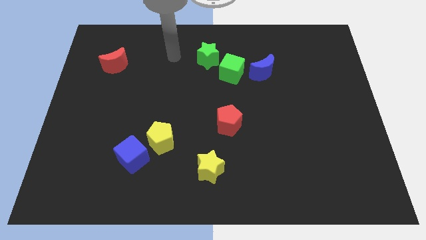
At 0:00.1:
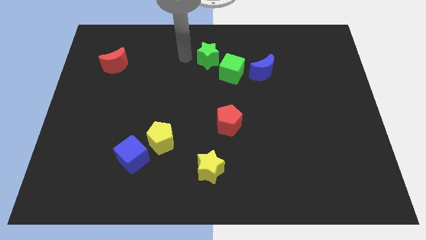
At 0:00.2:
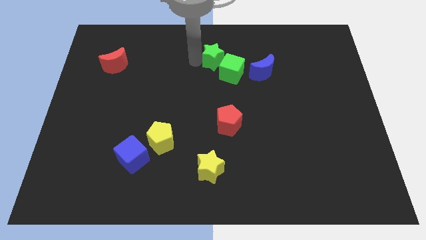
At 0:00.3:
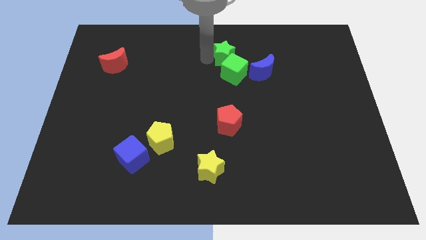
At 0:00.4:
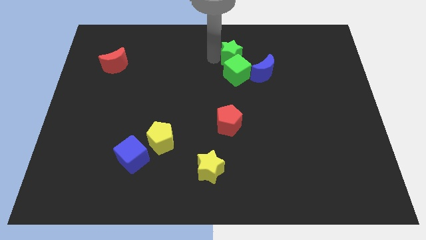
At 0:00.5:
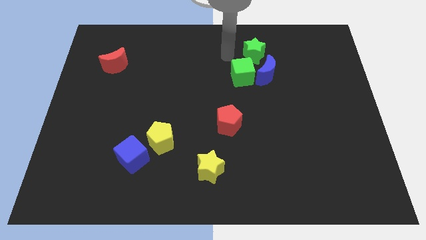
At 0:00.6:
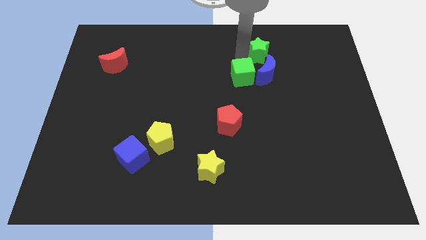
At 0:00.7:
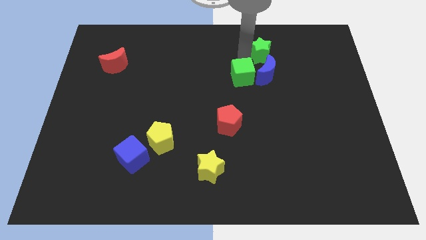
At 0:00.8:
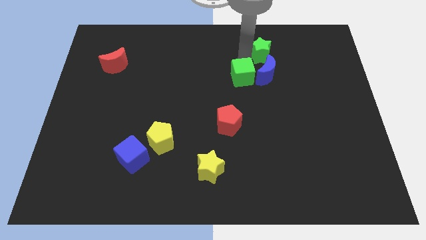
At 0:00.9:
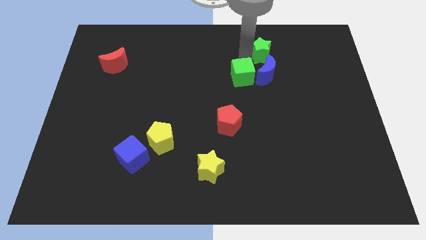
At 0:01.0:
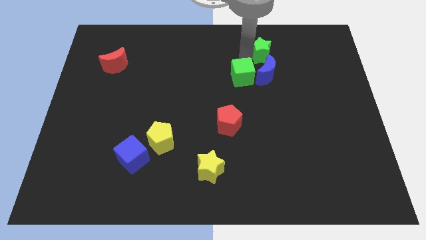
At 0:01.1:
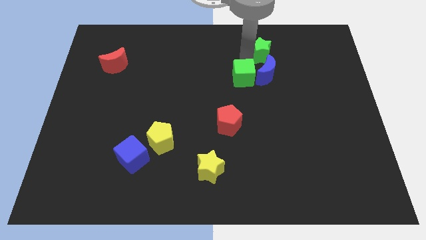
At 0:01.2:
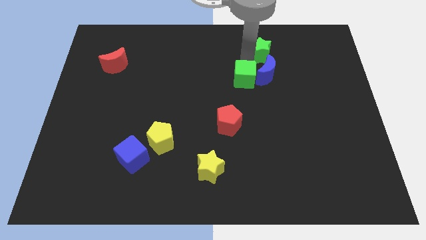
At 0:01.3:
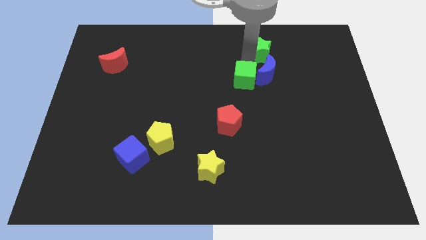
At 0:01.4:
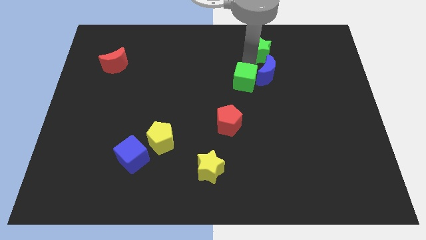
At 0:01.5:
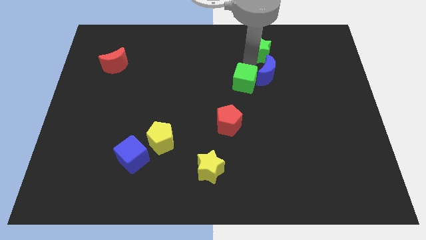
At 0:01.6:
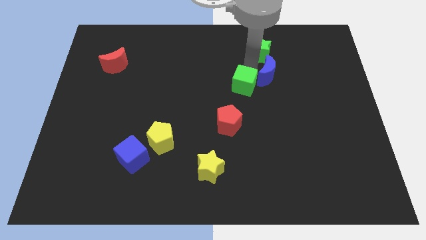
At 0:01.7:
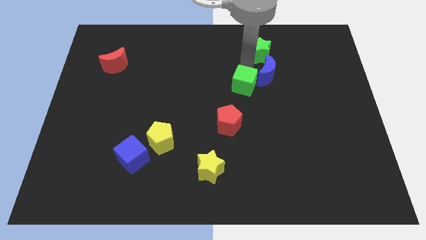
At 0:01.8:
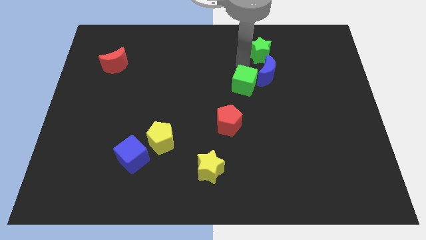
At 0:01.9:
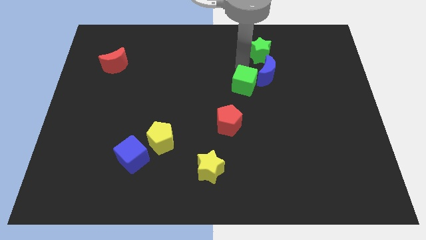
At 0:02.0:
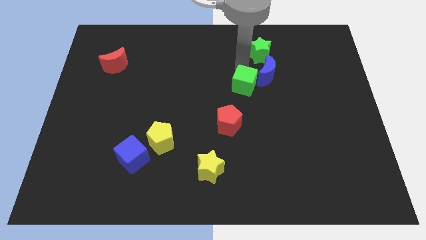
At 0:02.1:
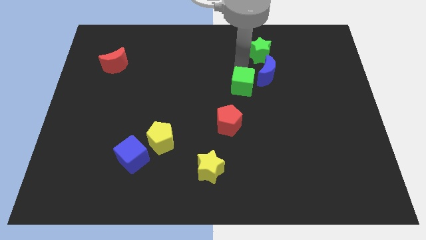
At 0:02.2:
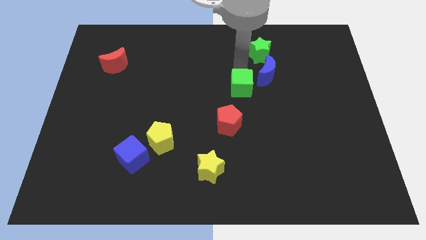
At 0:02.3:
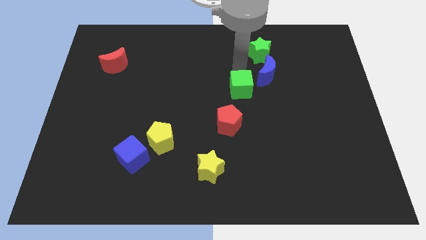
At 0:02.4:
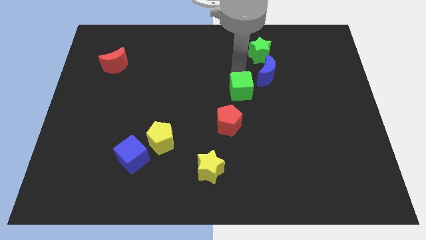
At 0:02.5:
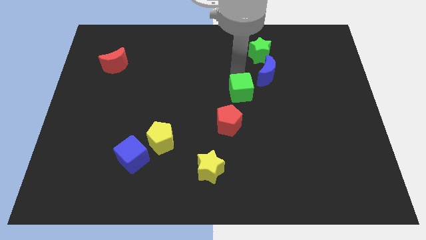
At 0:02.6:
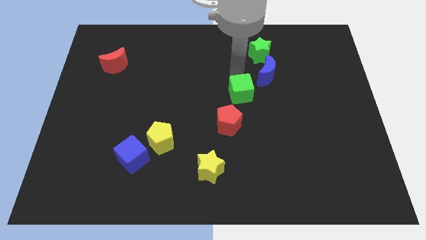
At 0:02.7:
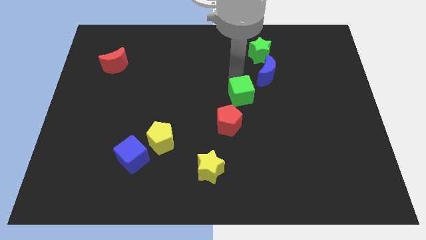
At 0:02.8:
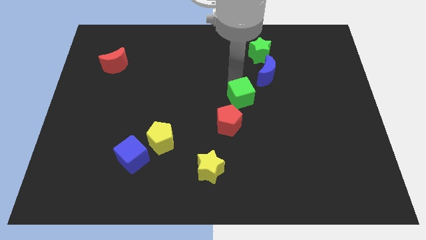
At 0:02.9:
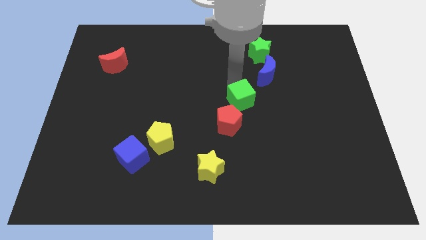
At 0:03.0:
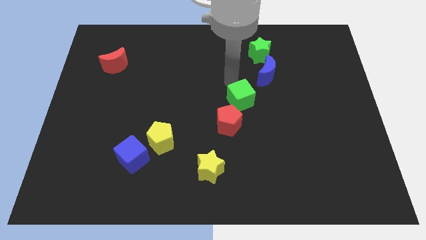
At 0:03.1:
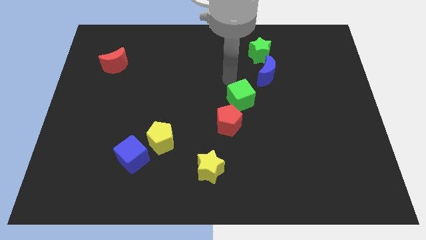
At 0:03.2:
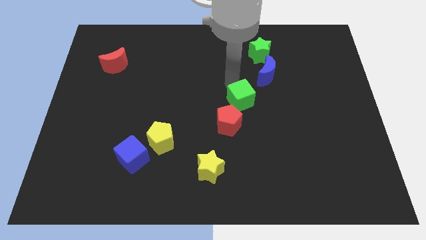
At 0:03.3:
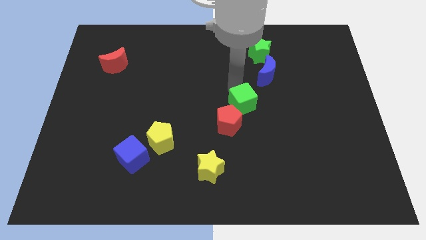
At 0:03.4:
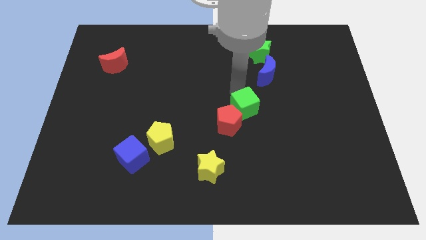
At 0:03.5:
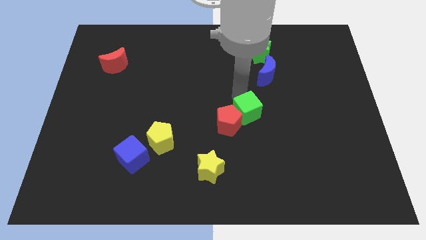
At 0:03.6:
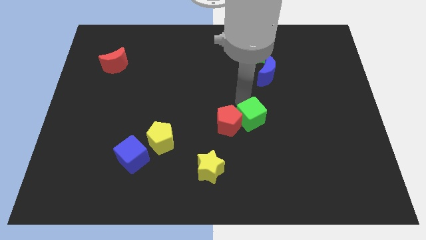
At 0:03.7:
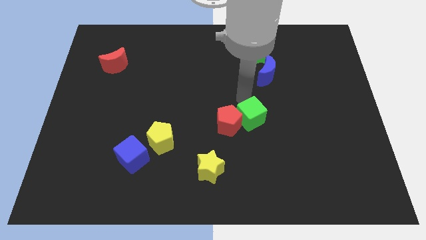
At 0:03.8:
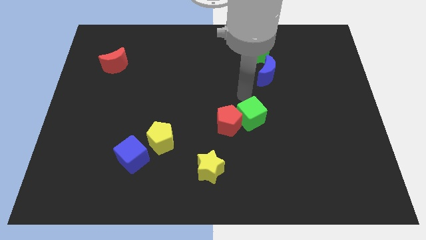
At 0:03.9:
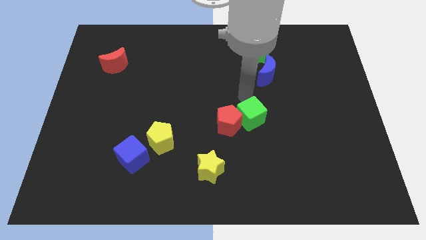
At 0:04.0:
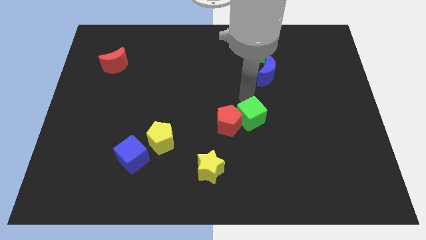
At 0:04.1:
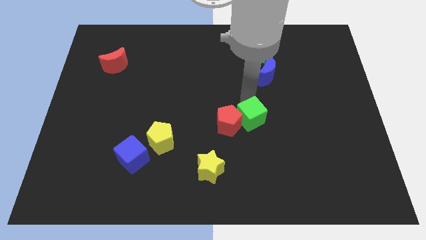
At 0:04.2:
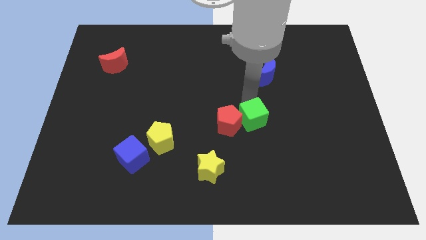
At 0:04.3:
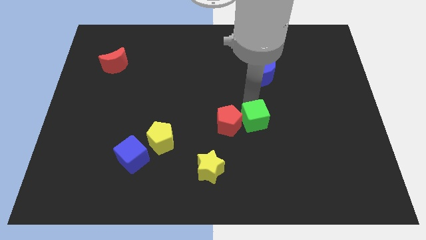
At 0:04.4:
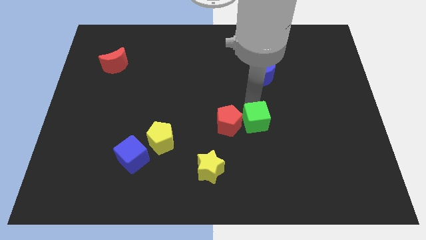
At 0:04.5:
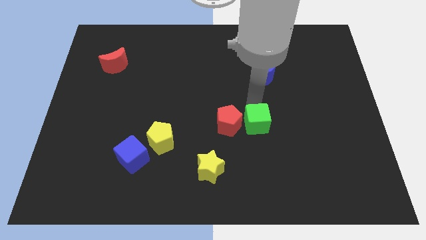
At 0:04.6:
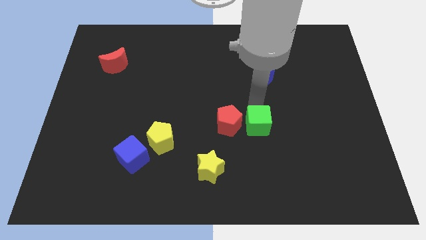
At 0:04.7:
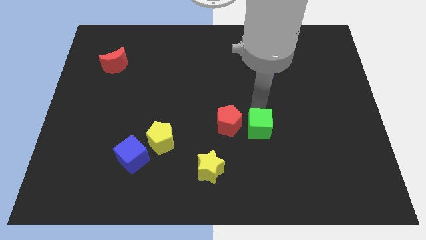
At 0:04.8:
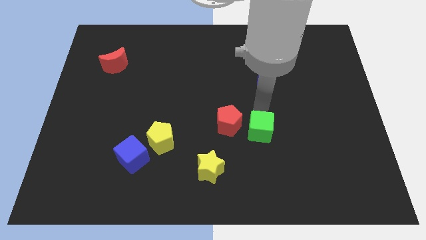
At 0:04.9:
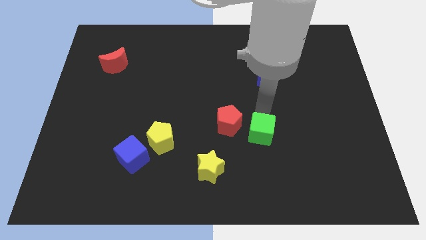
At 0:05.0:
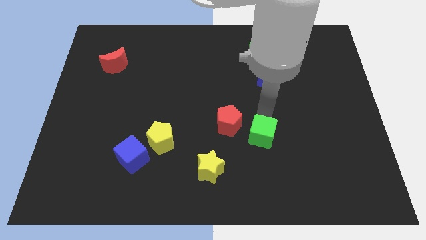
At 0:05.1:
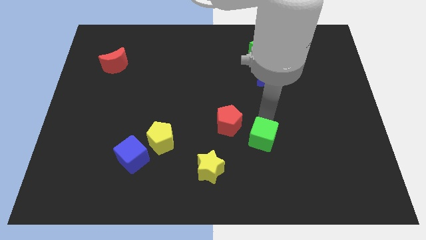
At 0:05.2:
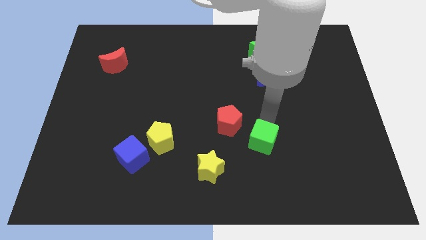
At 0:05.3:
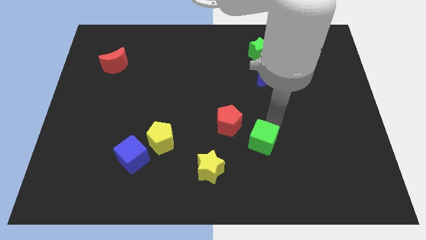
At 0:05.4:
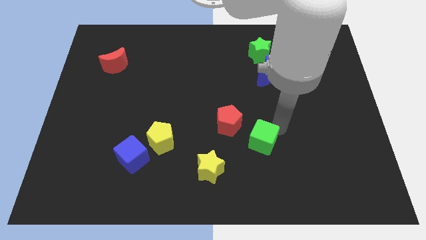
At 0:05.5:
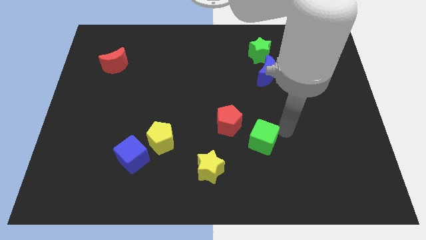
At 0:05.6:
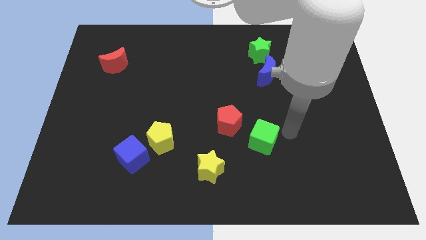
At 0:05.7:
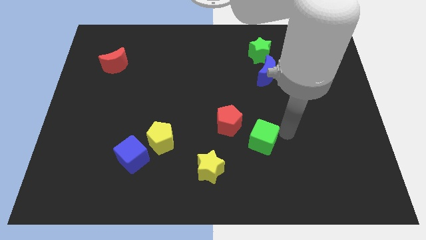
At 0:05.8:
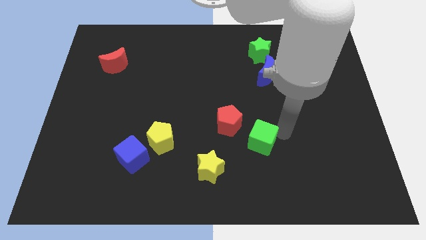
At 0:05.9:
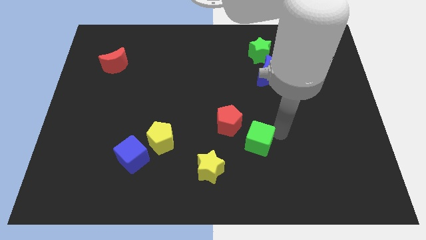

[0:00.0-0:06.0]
put the green cube to the top right of the yellow star

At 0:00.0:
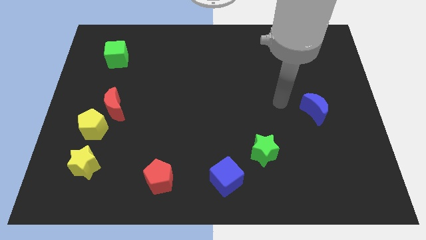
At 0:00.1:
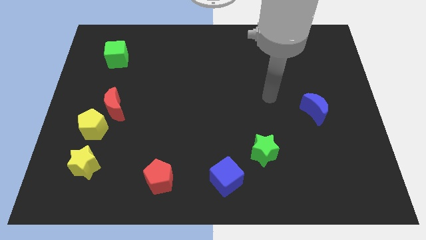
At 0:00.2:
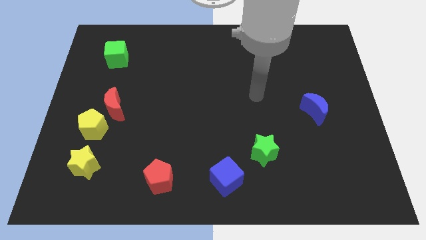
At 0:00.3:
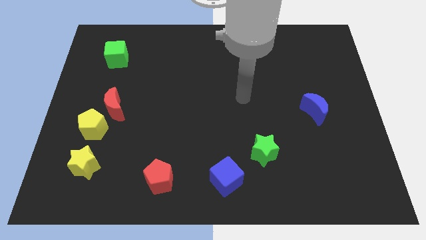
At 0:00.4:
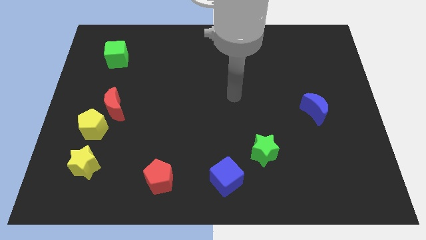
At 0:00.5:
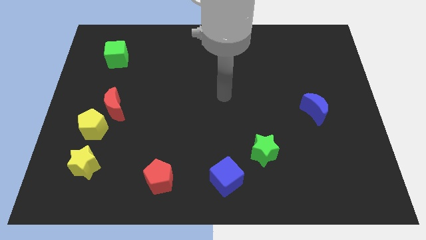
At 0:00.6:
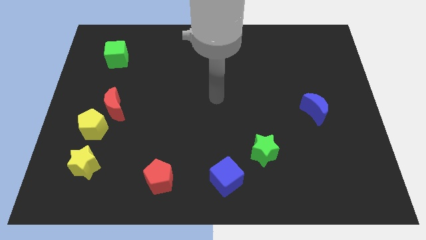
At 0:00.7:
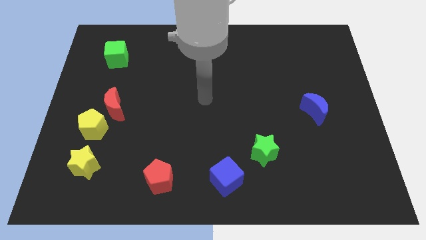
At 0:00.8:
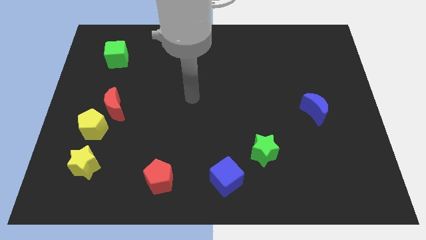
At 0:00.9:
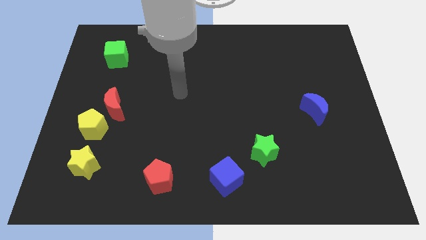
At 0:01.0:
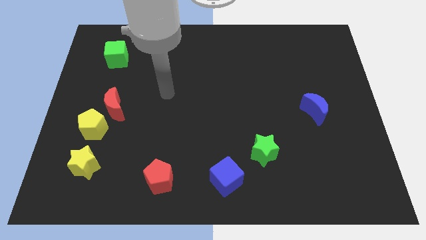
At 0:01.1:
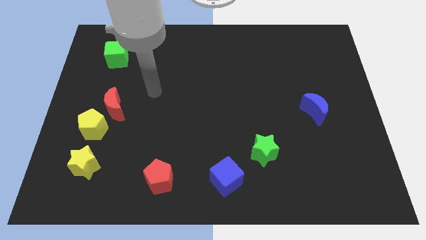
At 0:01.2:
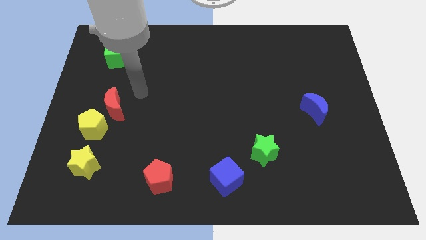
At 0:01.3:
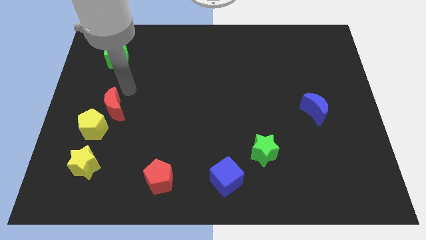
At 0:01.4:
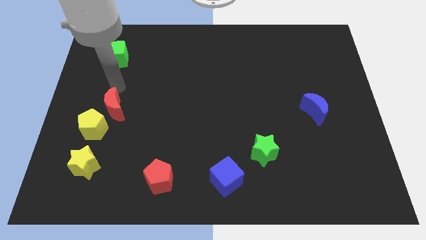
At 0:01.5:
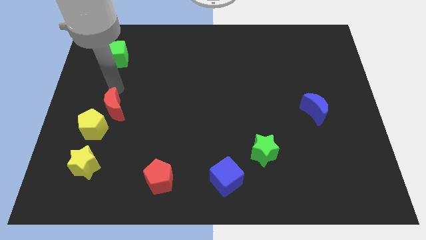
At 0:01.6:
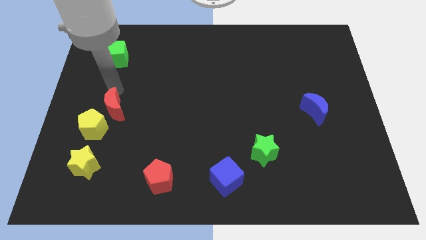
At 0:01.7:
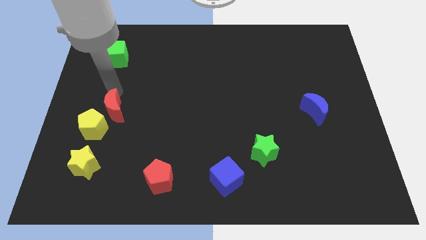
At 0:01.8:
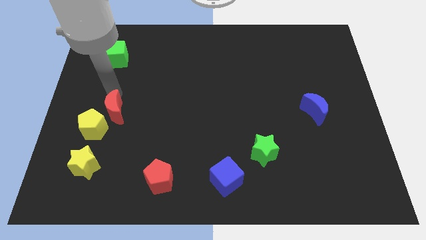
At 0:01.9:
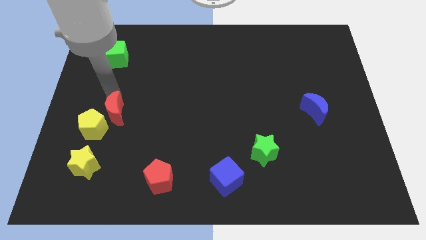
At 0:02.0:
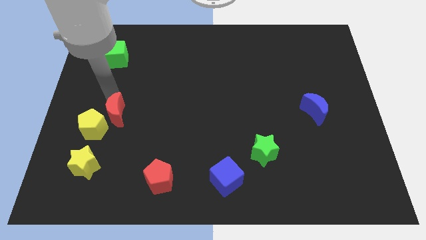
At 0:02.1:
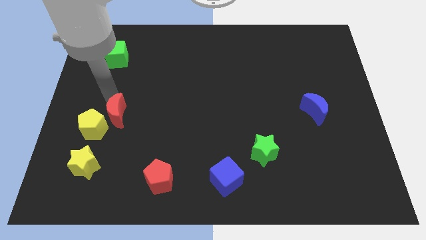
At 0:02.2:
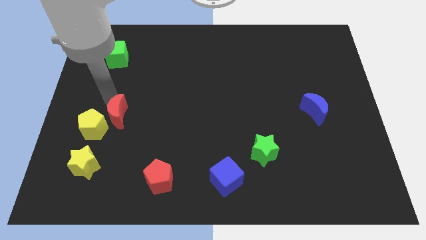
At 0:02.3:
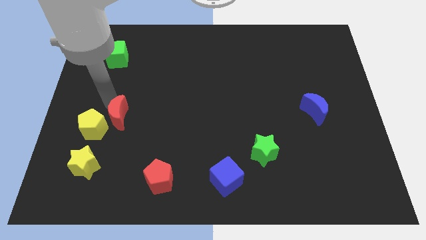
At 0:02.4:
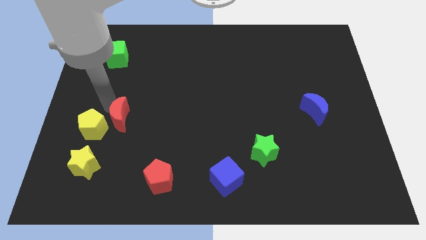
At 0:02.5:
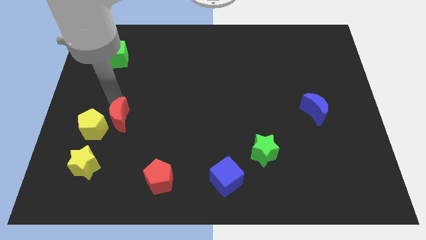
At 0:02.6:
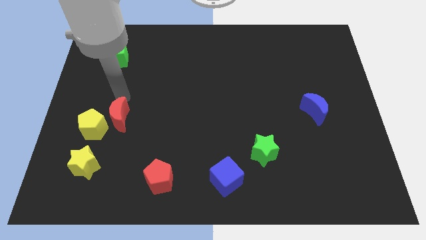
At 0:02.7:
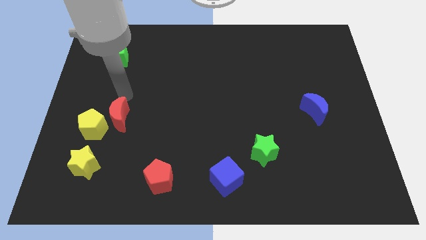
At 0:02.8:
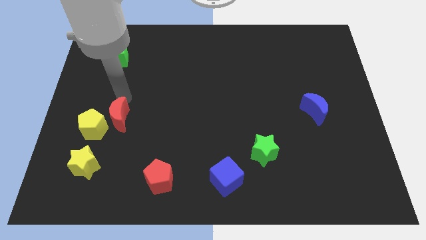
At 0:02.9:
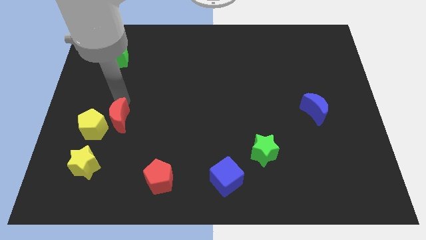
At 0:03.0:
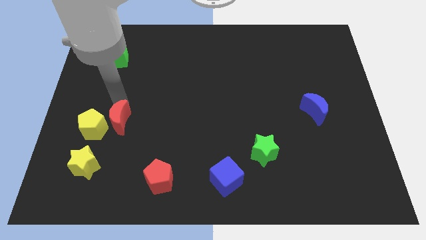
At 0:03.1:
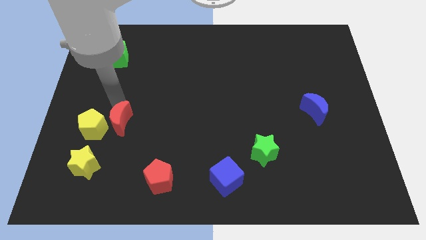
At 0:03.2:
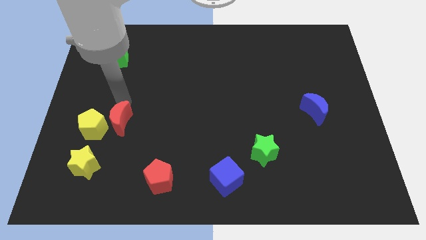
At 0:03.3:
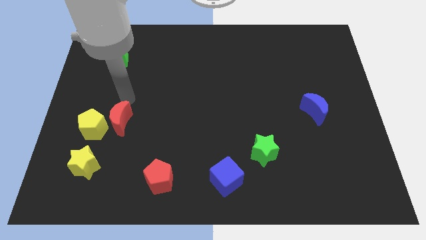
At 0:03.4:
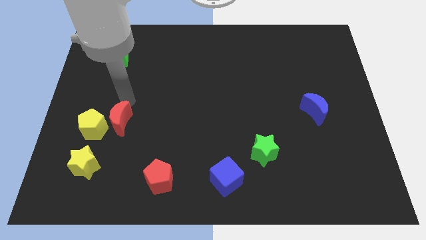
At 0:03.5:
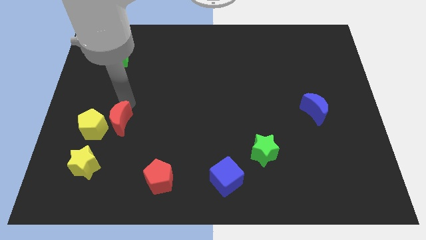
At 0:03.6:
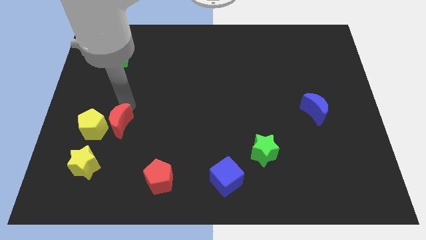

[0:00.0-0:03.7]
push the red moon to the bottom right of the yellow pentagon
